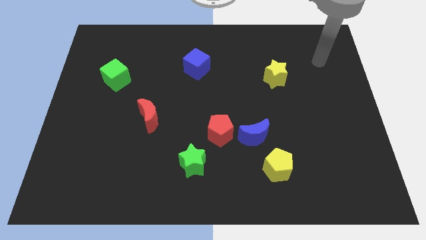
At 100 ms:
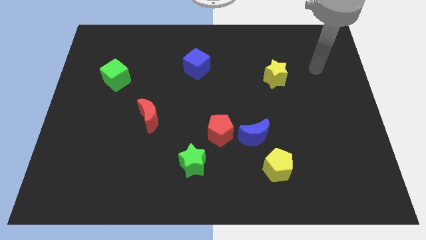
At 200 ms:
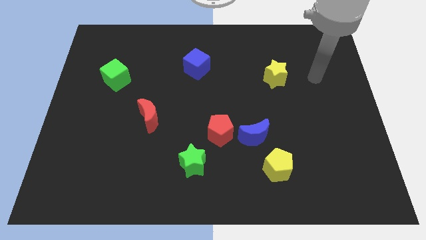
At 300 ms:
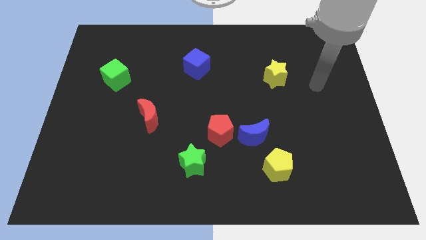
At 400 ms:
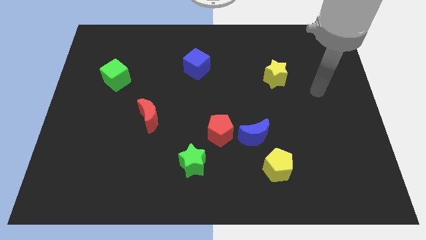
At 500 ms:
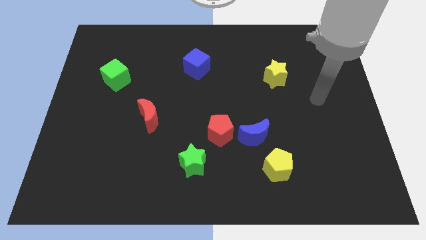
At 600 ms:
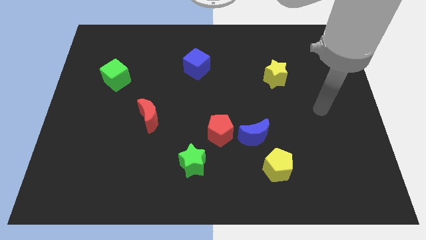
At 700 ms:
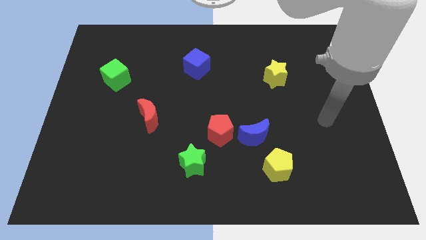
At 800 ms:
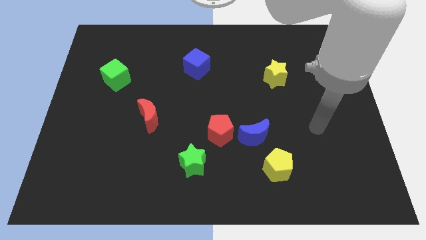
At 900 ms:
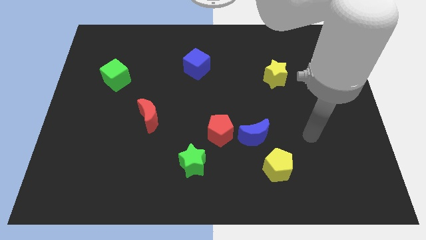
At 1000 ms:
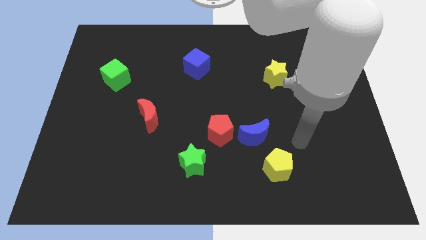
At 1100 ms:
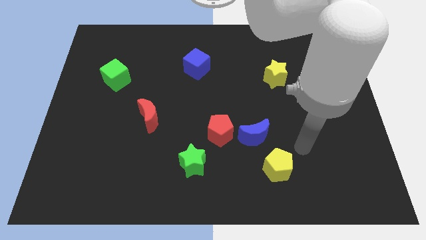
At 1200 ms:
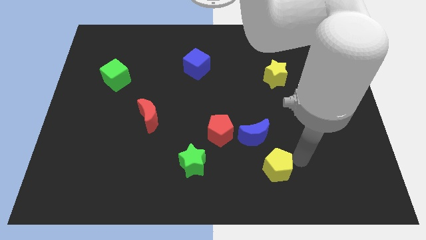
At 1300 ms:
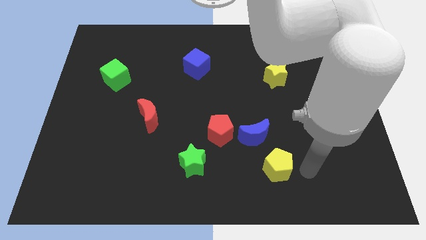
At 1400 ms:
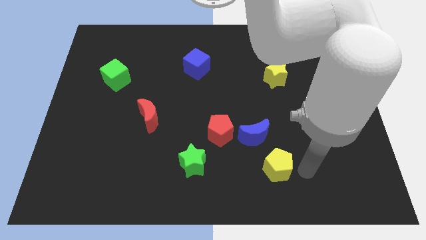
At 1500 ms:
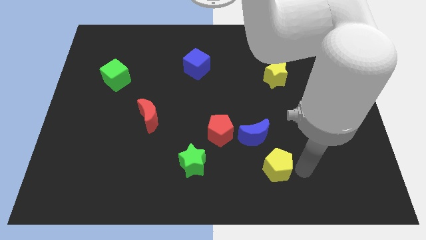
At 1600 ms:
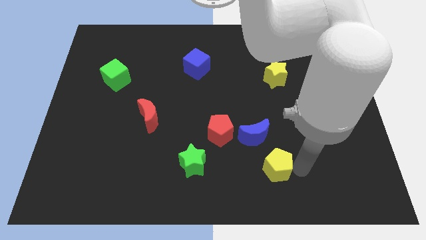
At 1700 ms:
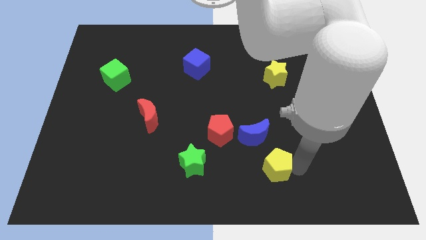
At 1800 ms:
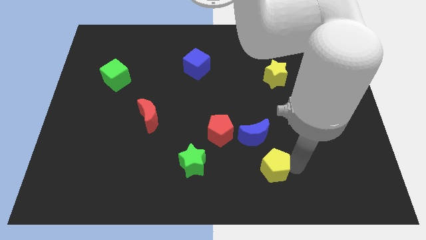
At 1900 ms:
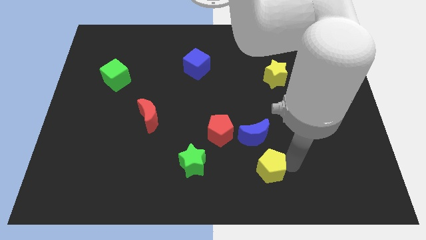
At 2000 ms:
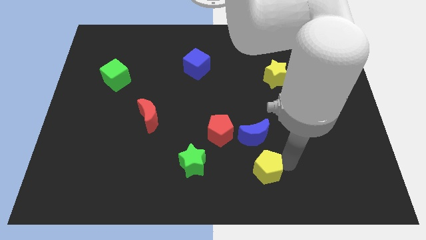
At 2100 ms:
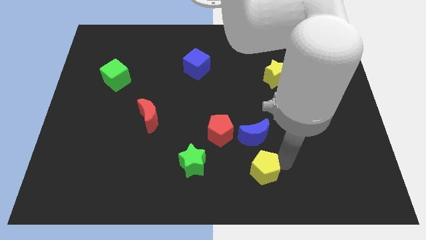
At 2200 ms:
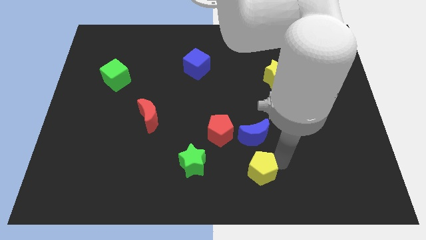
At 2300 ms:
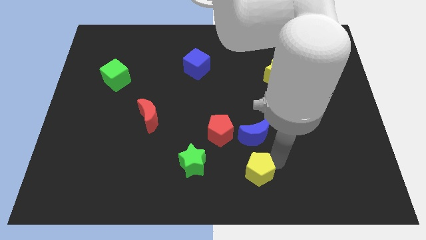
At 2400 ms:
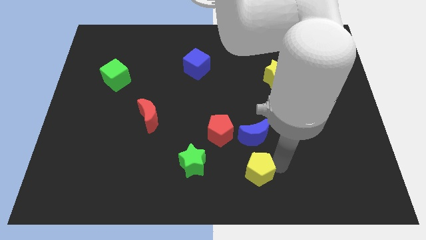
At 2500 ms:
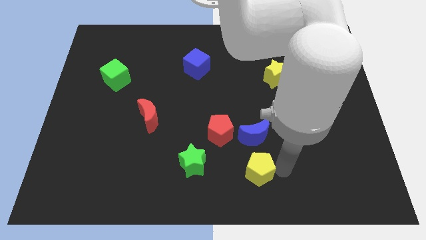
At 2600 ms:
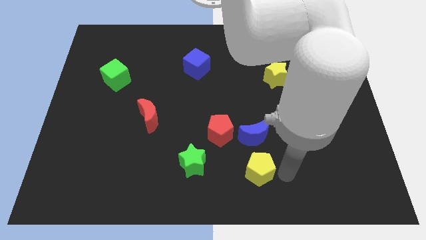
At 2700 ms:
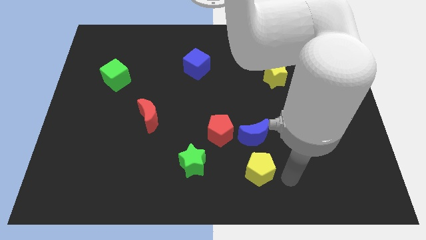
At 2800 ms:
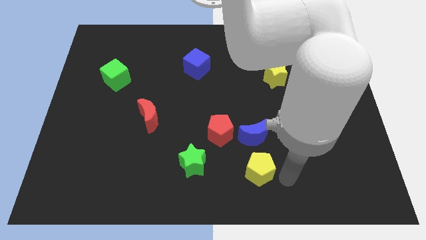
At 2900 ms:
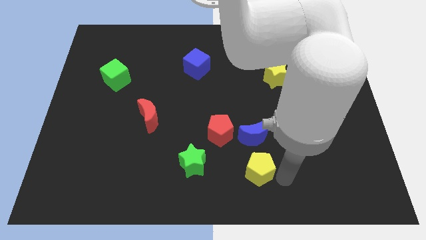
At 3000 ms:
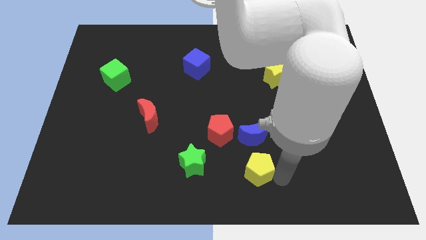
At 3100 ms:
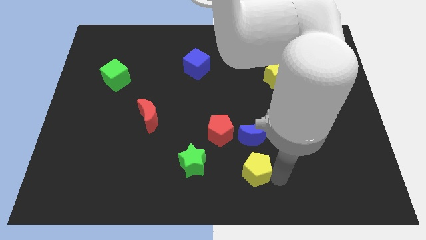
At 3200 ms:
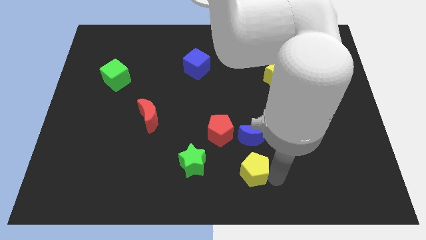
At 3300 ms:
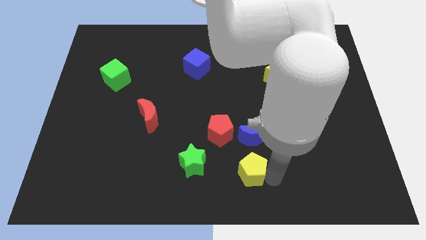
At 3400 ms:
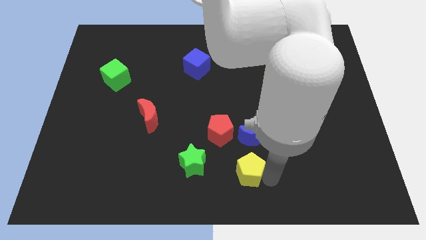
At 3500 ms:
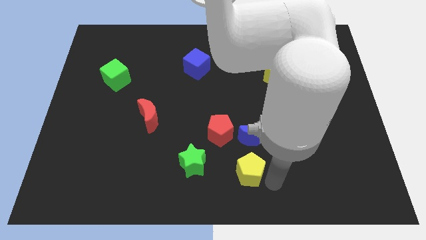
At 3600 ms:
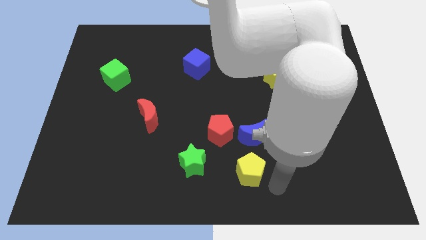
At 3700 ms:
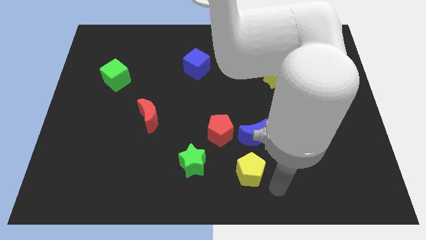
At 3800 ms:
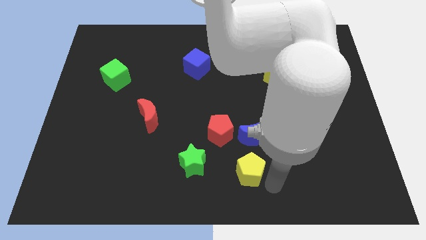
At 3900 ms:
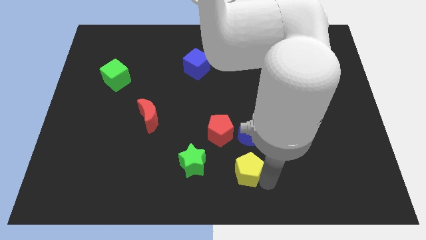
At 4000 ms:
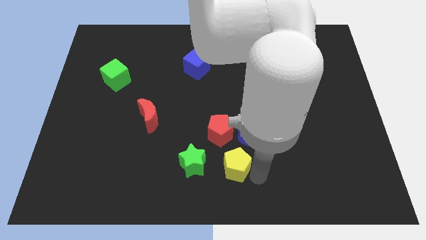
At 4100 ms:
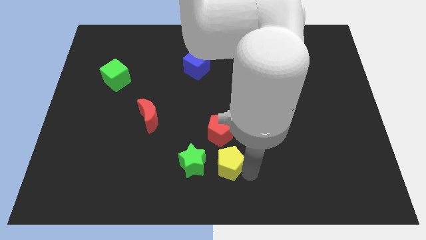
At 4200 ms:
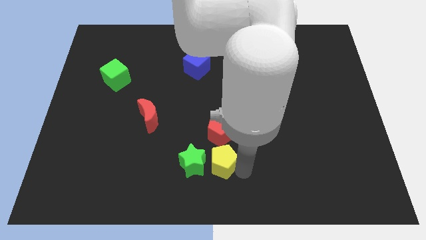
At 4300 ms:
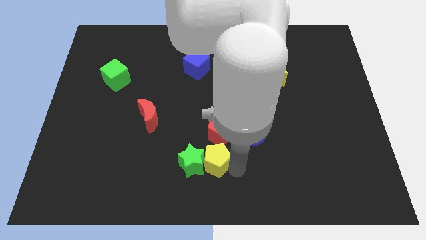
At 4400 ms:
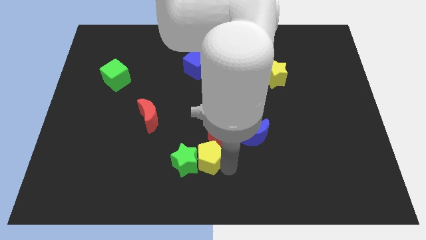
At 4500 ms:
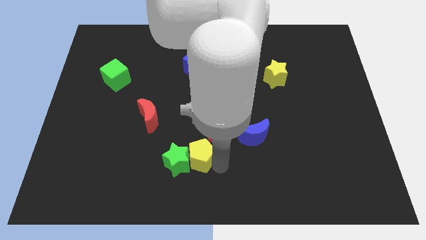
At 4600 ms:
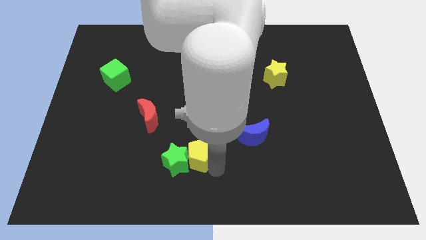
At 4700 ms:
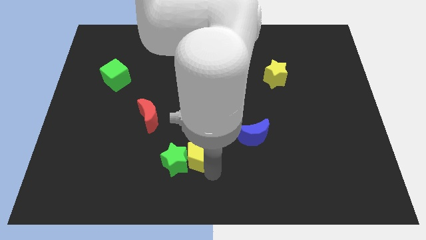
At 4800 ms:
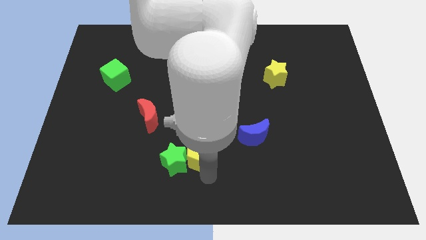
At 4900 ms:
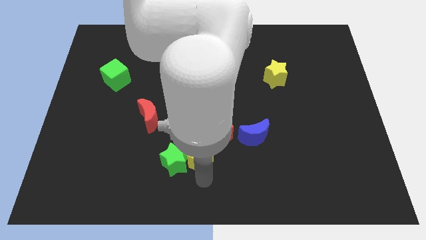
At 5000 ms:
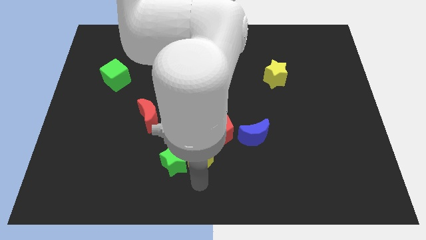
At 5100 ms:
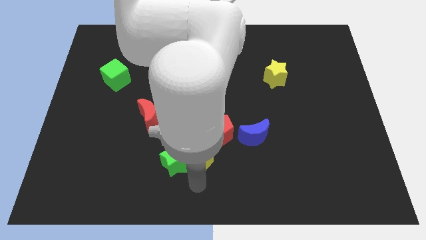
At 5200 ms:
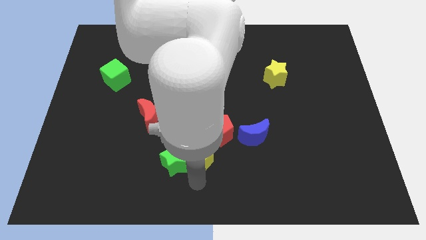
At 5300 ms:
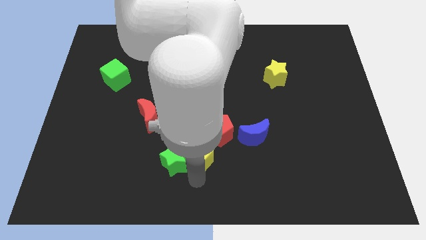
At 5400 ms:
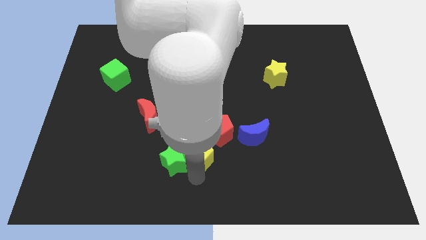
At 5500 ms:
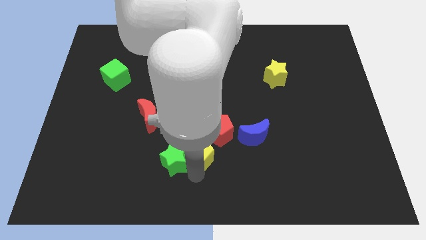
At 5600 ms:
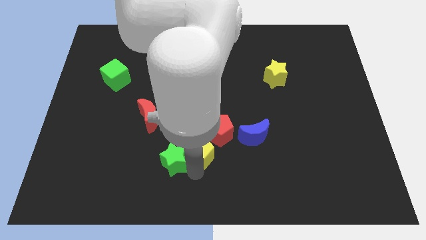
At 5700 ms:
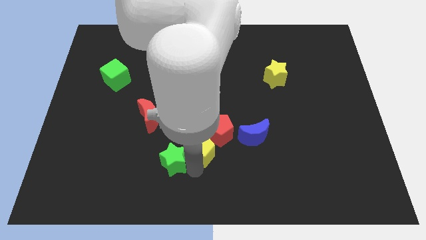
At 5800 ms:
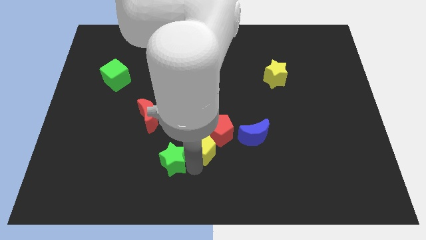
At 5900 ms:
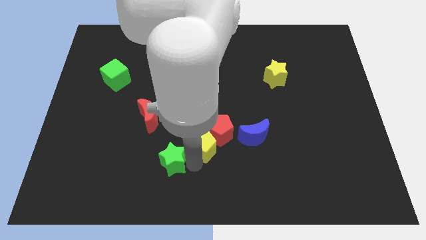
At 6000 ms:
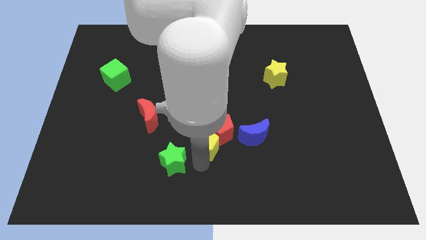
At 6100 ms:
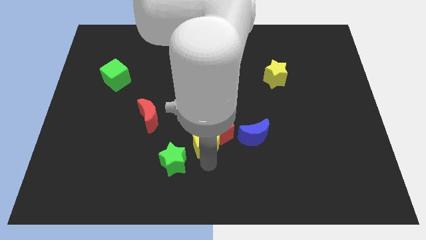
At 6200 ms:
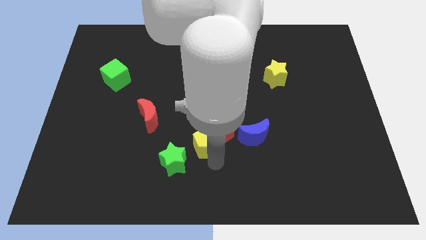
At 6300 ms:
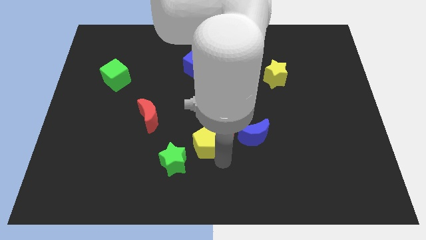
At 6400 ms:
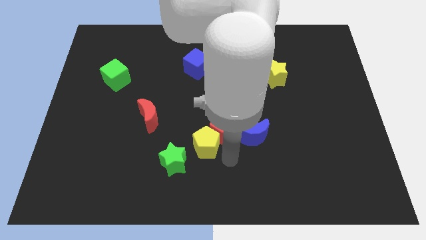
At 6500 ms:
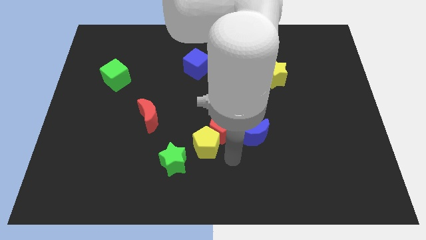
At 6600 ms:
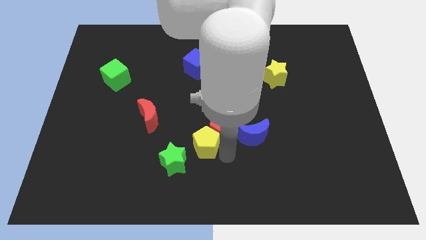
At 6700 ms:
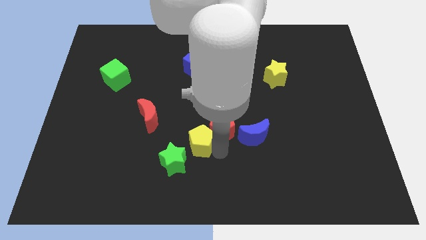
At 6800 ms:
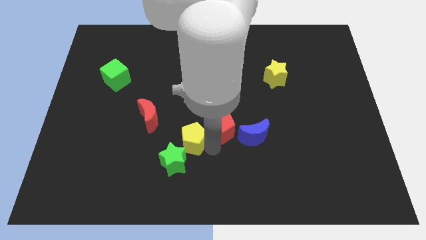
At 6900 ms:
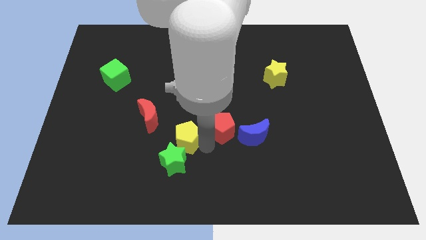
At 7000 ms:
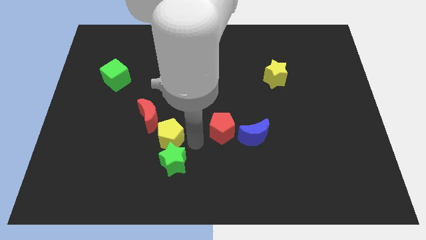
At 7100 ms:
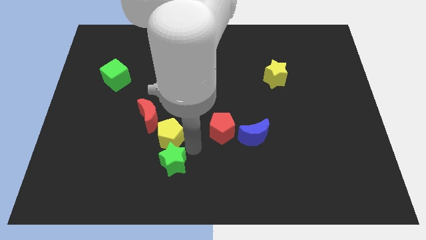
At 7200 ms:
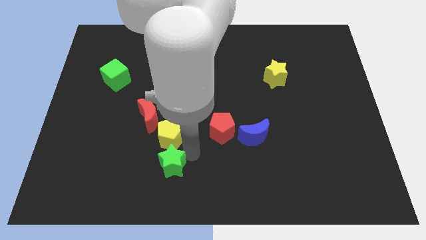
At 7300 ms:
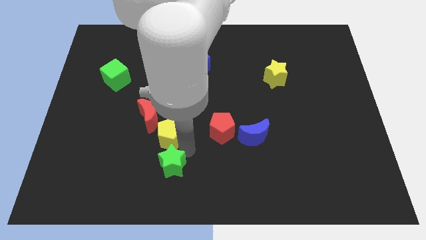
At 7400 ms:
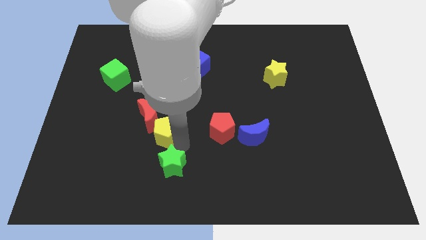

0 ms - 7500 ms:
push the yellow pentagon next to the red moon
